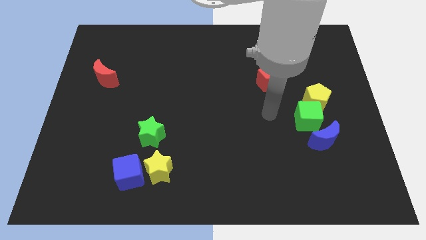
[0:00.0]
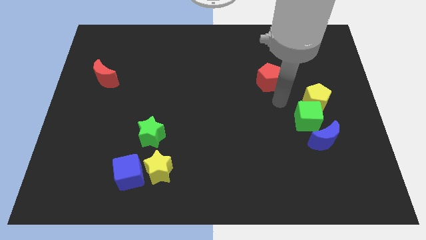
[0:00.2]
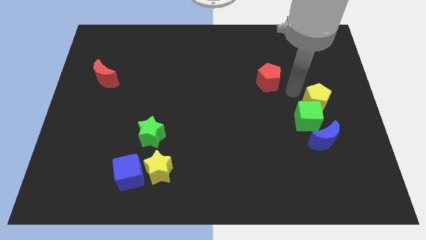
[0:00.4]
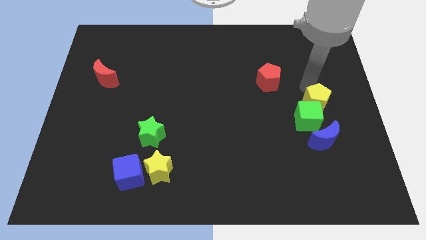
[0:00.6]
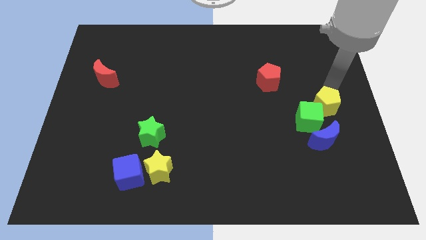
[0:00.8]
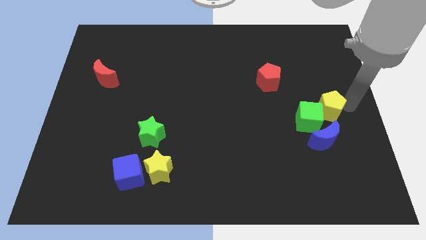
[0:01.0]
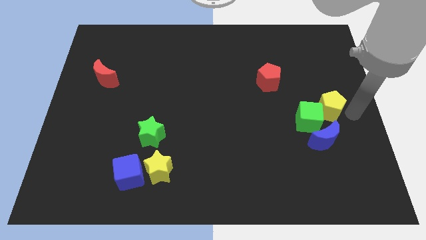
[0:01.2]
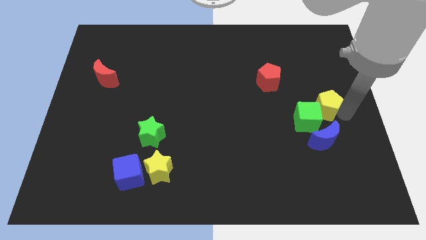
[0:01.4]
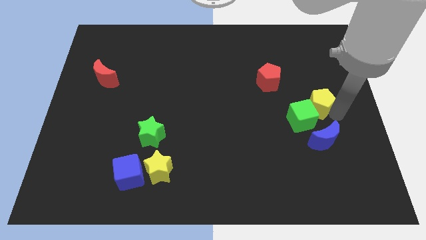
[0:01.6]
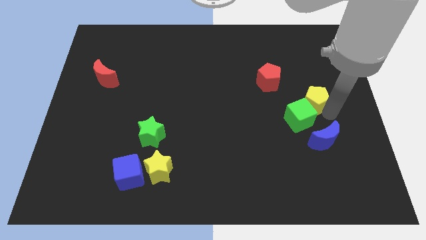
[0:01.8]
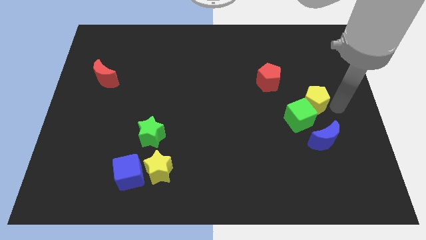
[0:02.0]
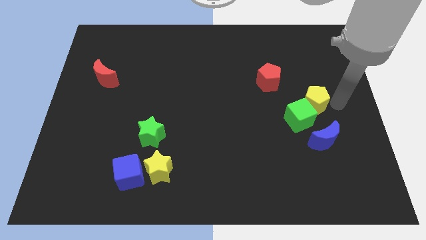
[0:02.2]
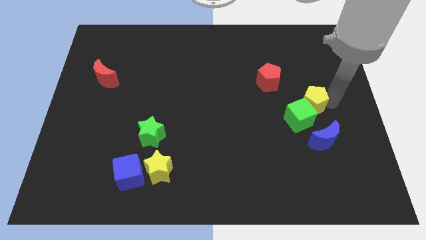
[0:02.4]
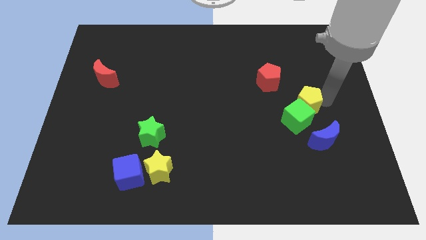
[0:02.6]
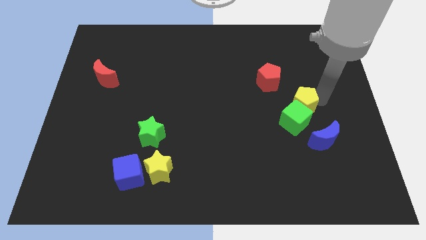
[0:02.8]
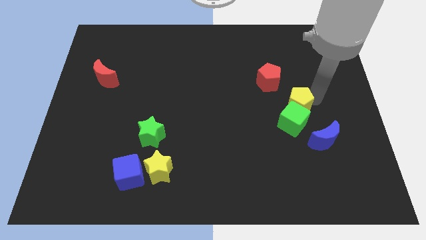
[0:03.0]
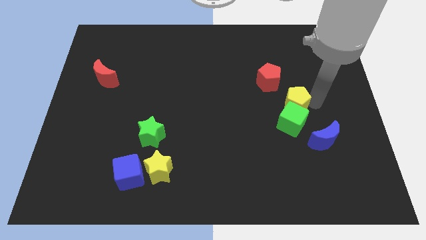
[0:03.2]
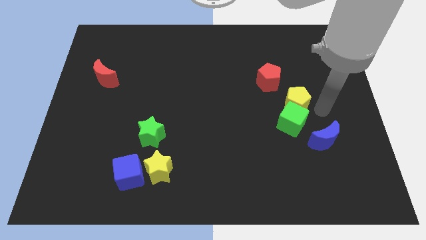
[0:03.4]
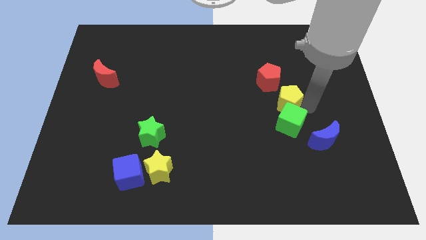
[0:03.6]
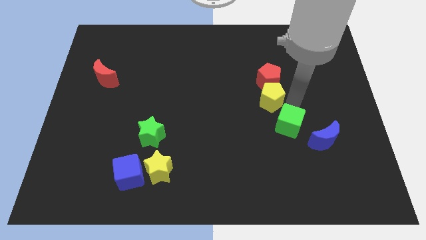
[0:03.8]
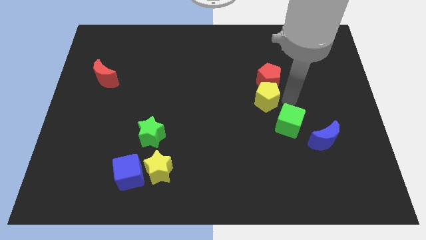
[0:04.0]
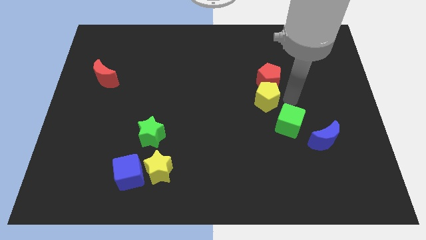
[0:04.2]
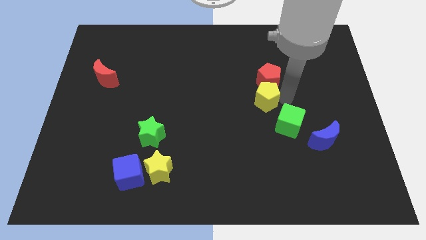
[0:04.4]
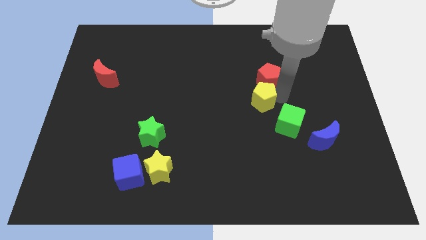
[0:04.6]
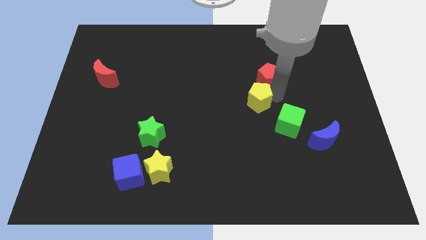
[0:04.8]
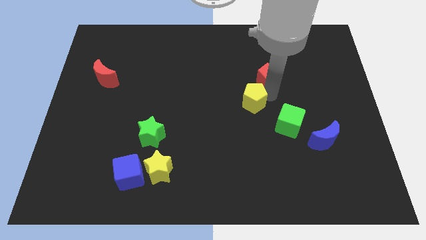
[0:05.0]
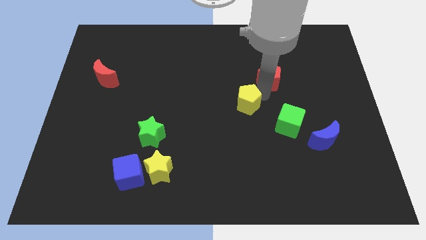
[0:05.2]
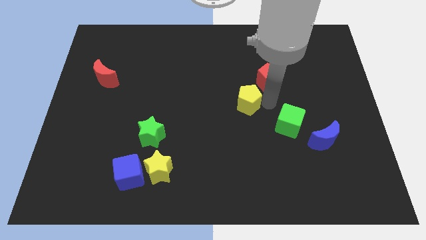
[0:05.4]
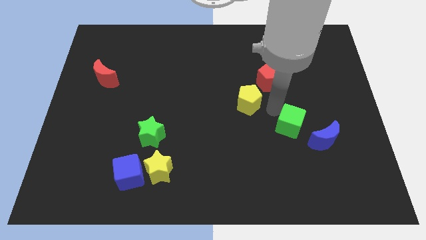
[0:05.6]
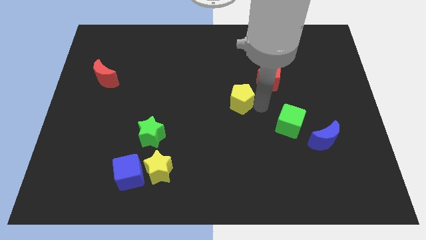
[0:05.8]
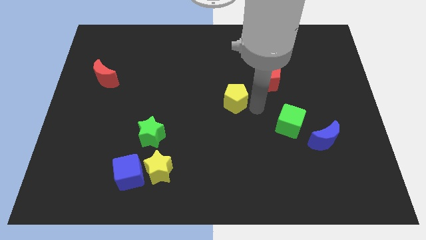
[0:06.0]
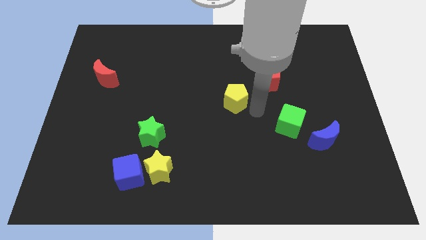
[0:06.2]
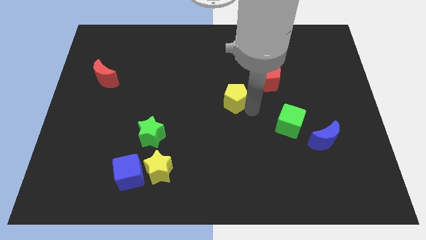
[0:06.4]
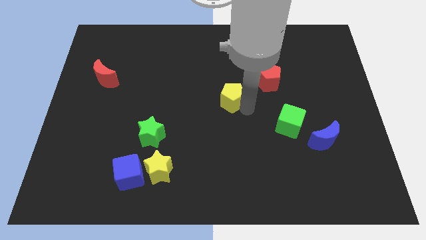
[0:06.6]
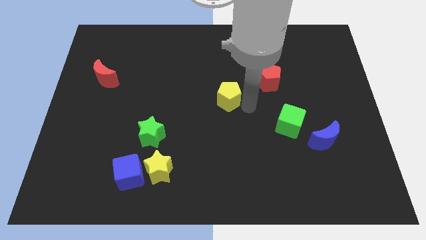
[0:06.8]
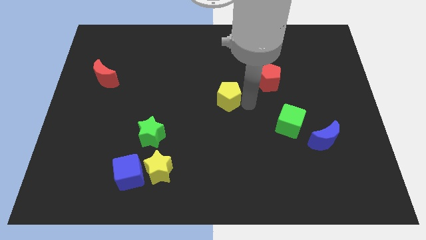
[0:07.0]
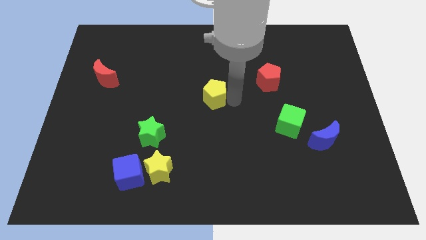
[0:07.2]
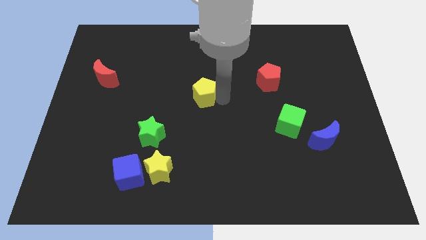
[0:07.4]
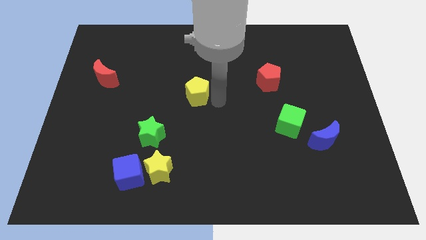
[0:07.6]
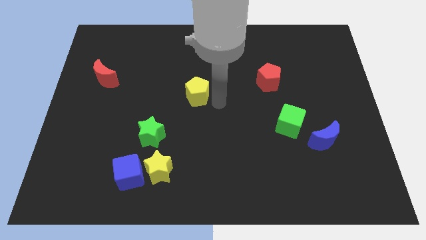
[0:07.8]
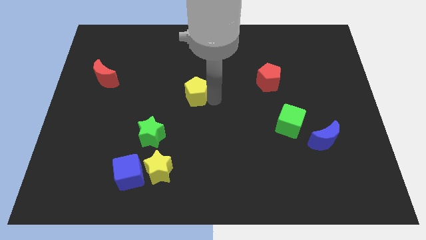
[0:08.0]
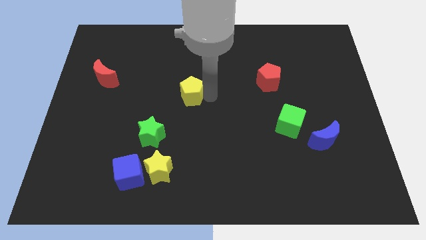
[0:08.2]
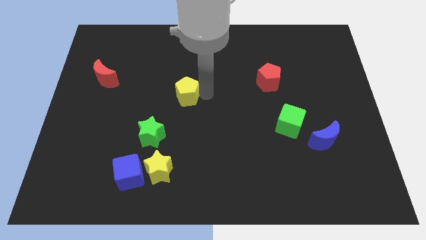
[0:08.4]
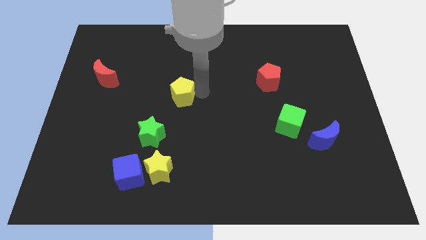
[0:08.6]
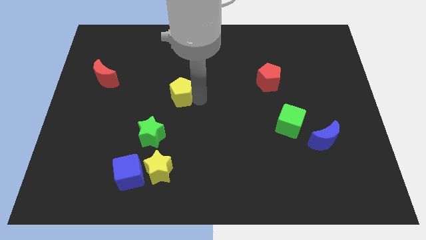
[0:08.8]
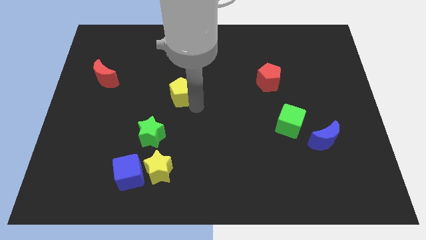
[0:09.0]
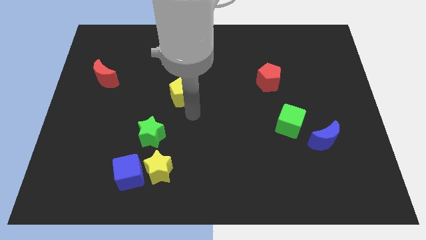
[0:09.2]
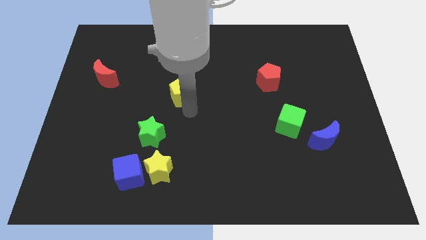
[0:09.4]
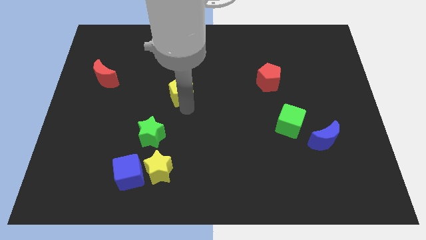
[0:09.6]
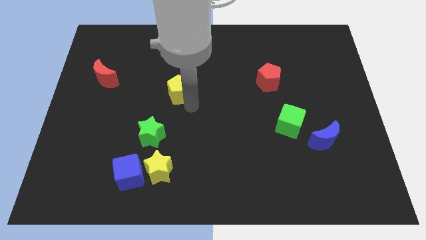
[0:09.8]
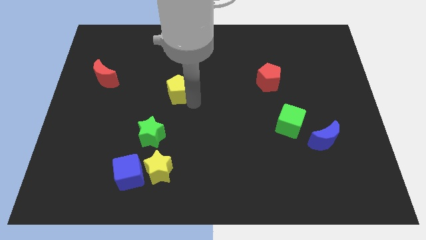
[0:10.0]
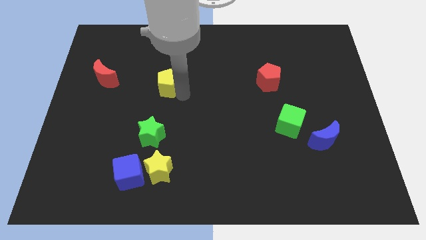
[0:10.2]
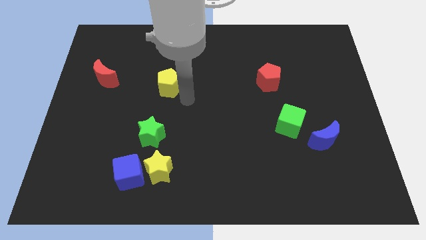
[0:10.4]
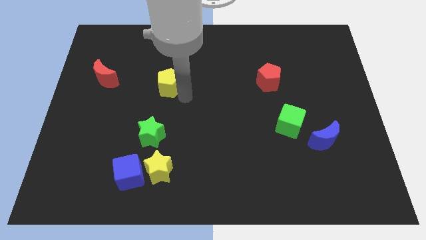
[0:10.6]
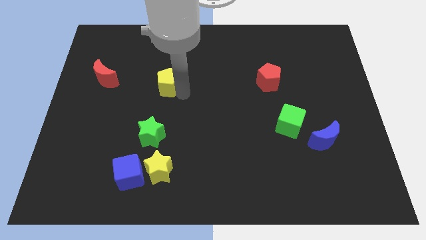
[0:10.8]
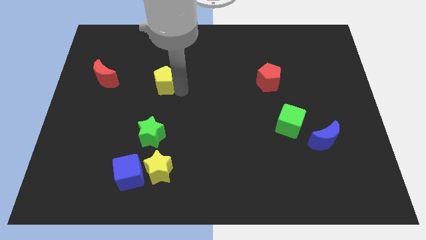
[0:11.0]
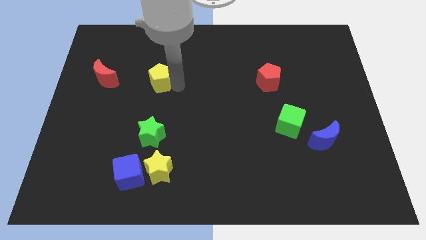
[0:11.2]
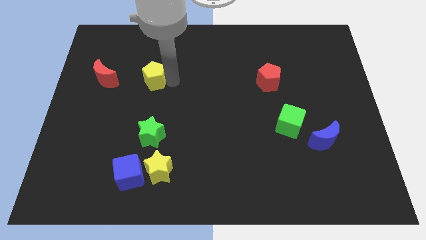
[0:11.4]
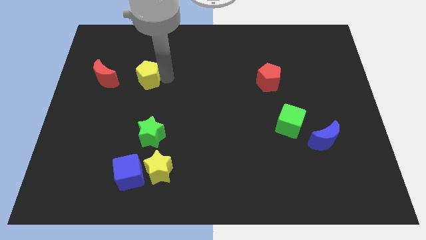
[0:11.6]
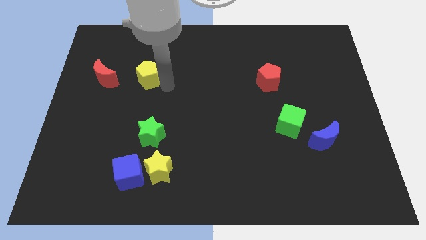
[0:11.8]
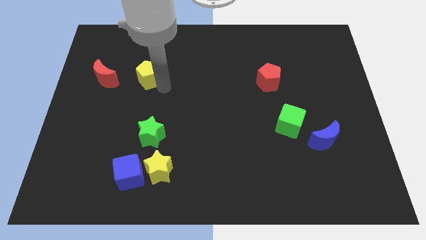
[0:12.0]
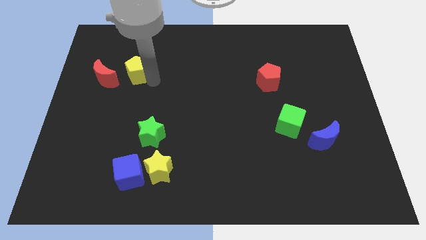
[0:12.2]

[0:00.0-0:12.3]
slide the yellow pentagon to the top right side of the red moon

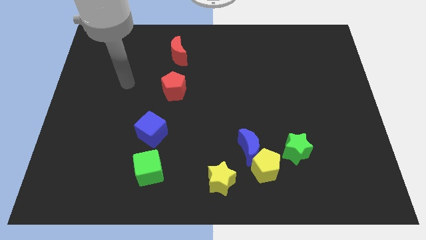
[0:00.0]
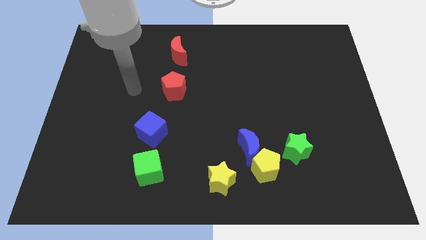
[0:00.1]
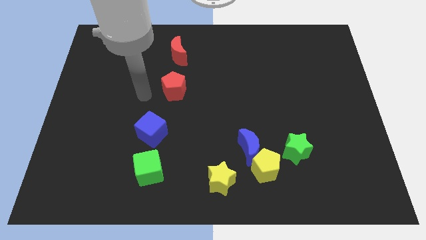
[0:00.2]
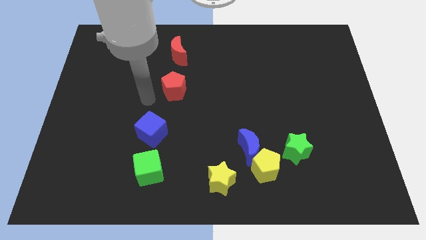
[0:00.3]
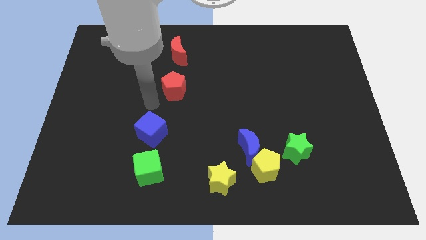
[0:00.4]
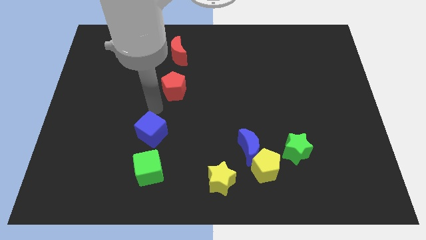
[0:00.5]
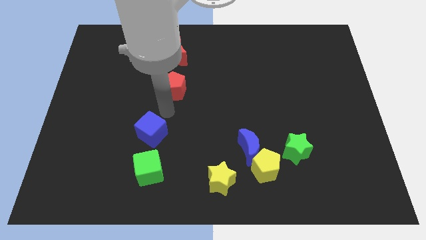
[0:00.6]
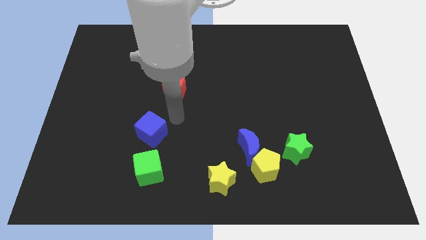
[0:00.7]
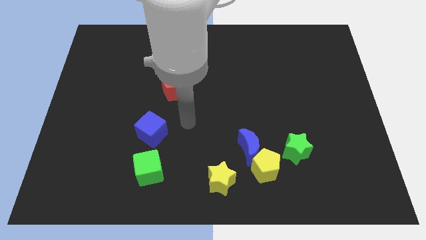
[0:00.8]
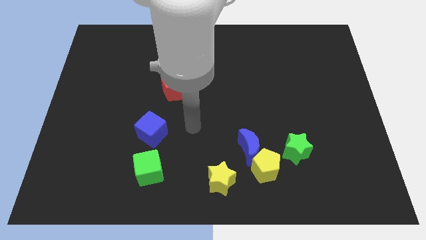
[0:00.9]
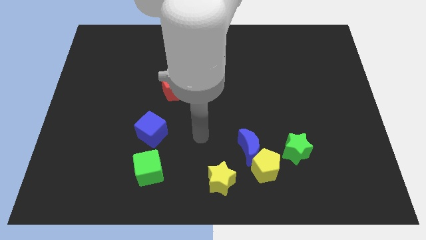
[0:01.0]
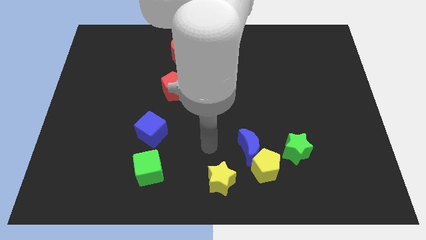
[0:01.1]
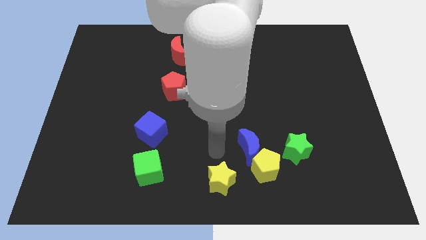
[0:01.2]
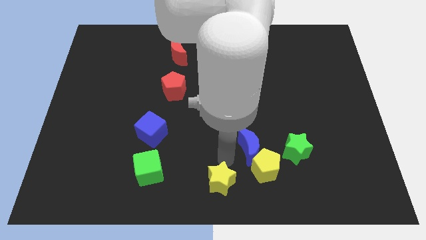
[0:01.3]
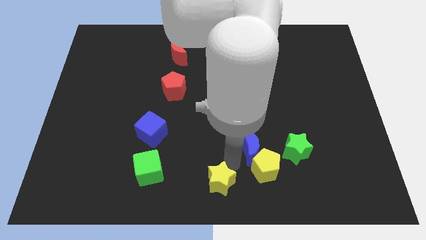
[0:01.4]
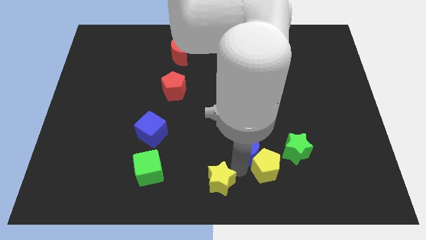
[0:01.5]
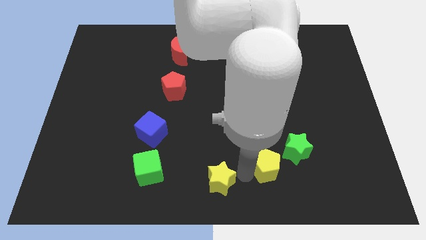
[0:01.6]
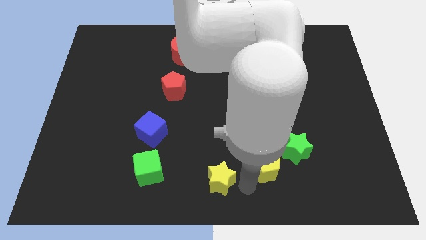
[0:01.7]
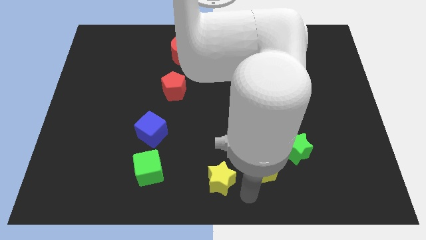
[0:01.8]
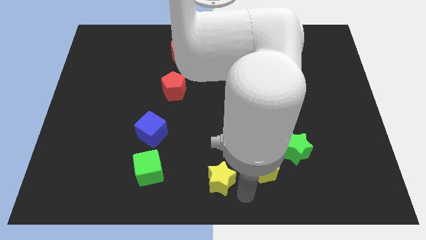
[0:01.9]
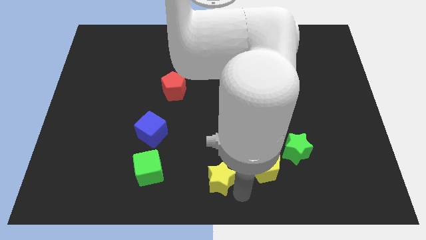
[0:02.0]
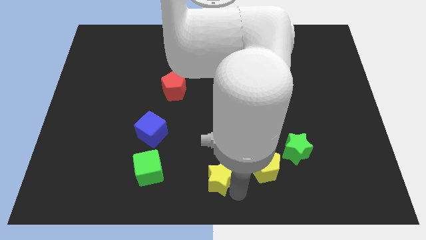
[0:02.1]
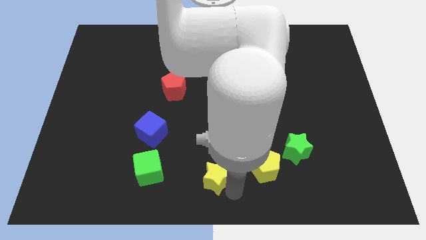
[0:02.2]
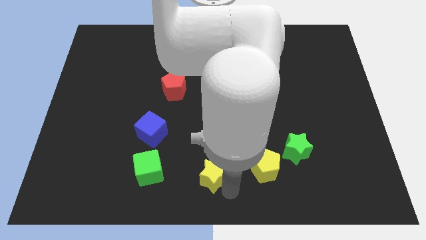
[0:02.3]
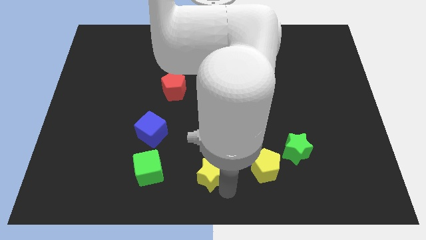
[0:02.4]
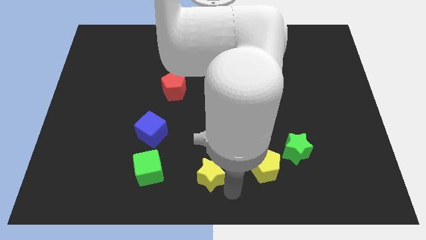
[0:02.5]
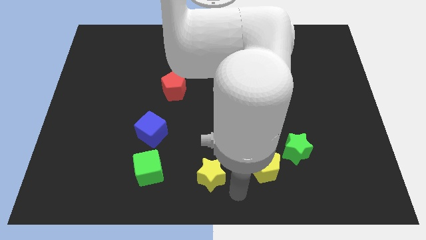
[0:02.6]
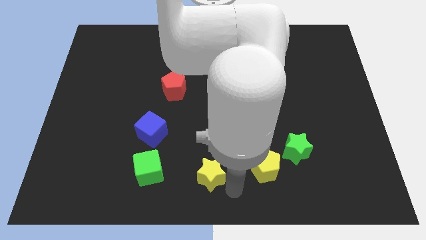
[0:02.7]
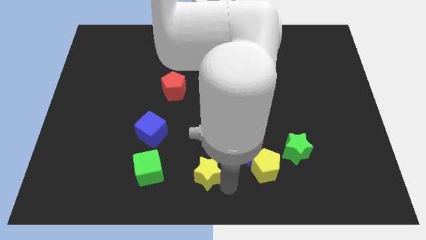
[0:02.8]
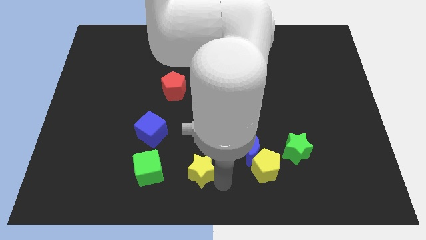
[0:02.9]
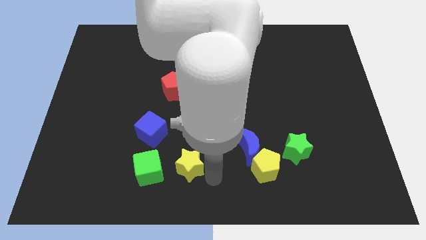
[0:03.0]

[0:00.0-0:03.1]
slide the yellow star to the bottom right of the blue cube
